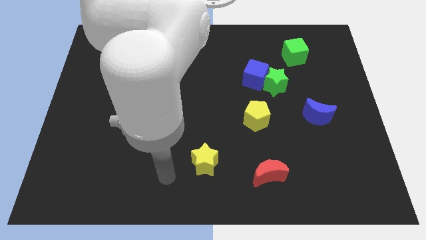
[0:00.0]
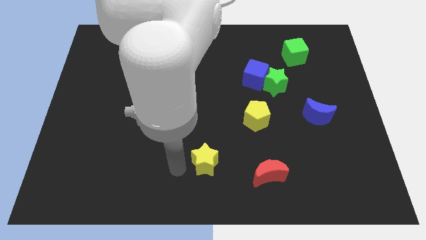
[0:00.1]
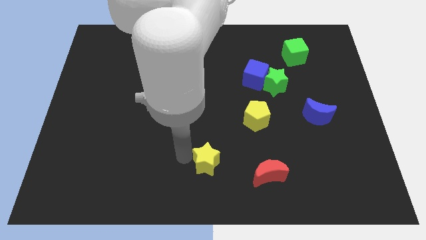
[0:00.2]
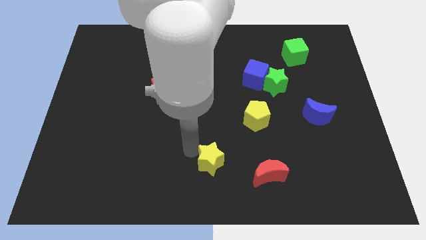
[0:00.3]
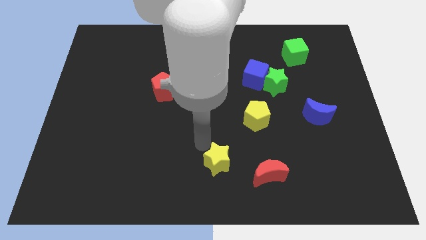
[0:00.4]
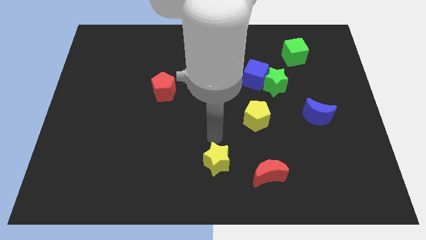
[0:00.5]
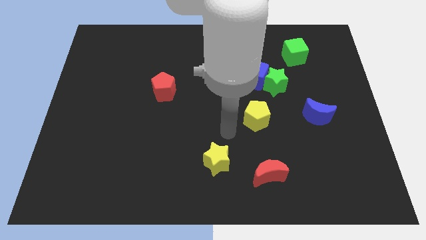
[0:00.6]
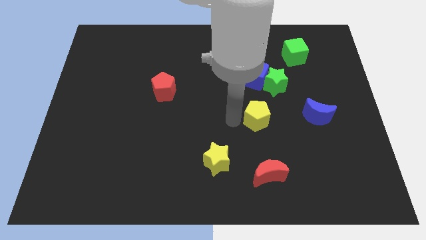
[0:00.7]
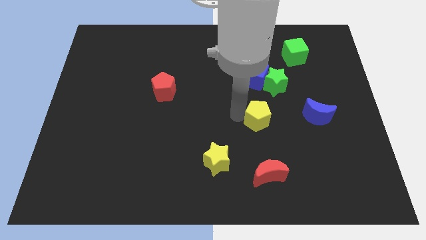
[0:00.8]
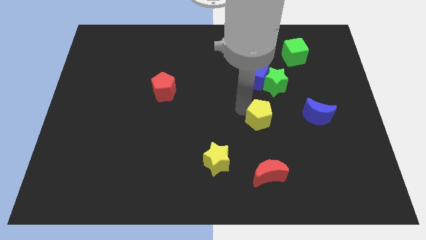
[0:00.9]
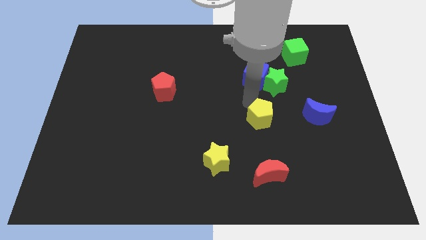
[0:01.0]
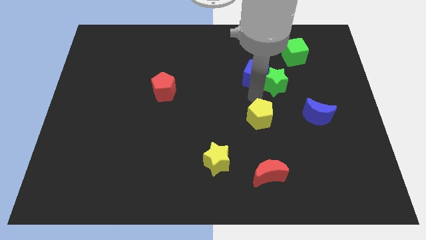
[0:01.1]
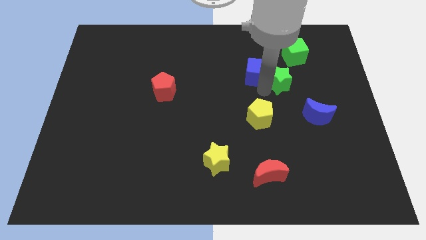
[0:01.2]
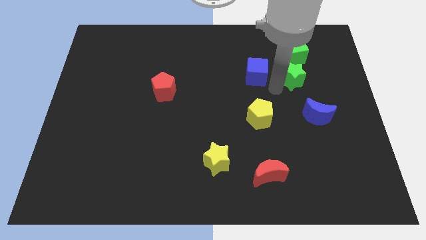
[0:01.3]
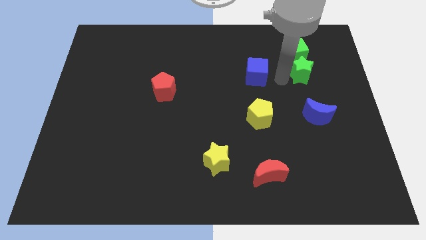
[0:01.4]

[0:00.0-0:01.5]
pull the blue cube apart from the green star

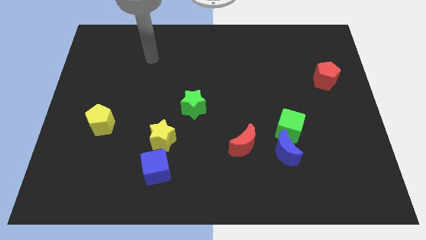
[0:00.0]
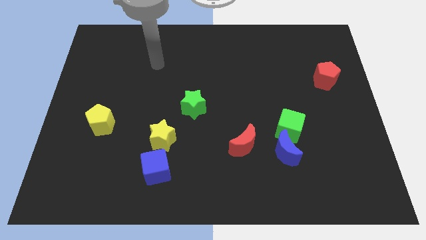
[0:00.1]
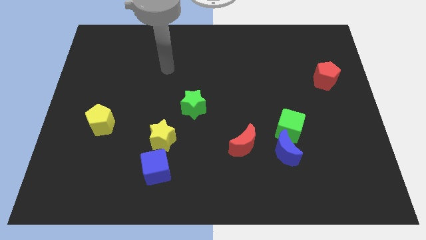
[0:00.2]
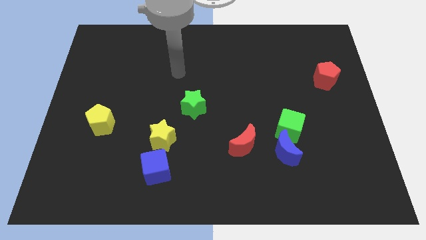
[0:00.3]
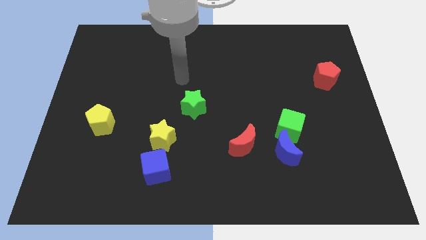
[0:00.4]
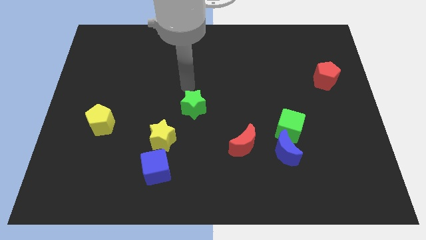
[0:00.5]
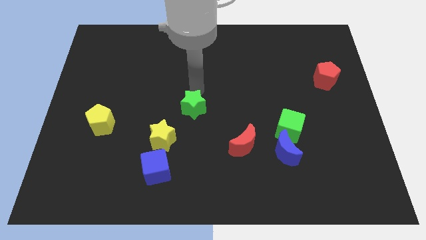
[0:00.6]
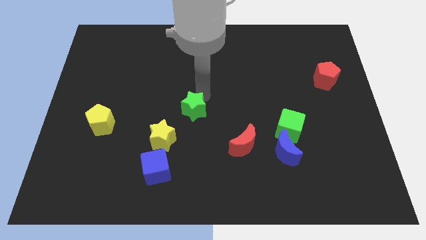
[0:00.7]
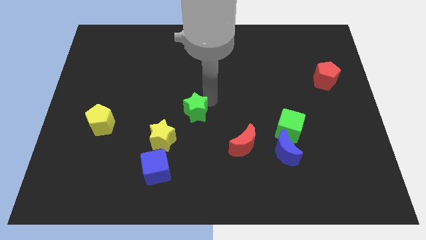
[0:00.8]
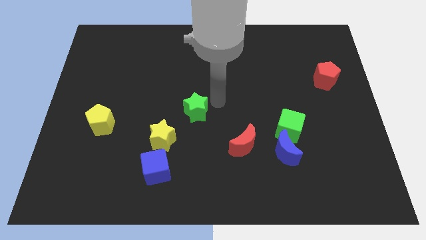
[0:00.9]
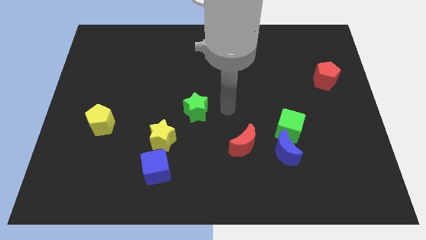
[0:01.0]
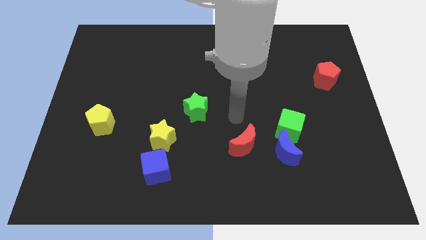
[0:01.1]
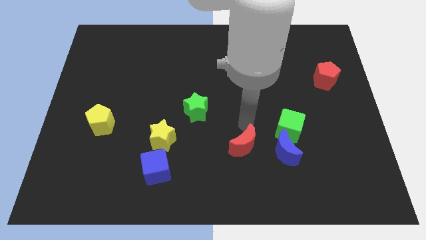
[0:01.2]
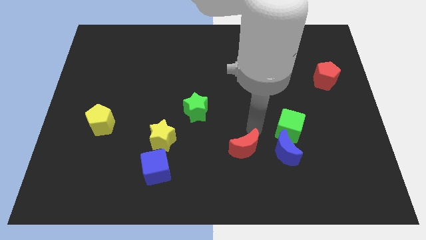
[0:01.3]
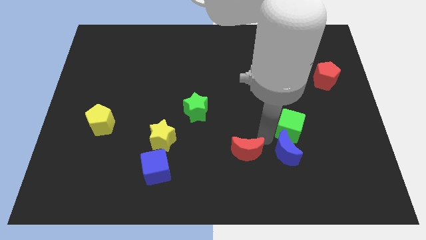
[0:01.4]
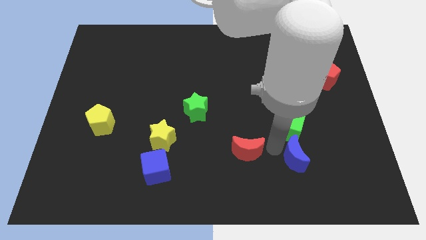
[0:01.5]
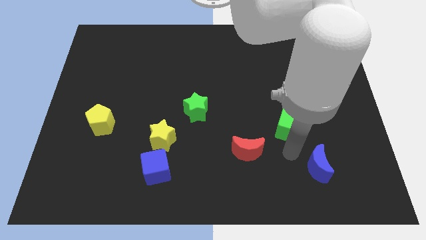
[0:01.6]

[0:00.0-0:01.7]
move the green cube away from the blue moon

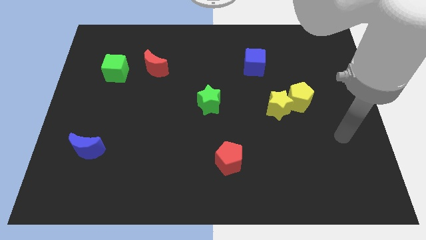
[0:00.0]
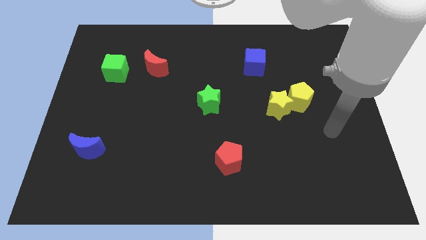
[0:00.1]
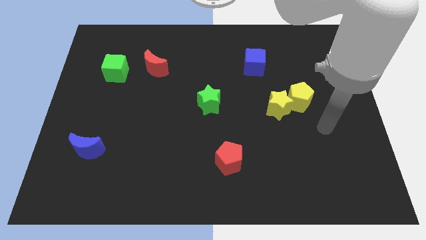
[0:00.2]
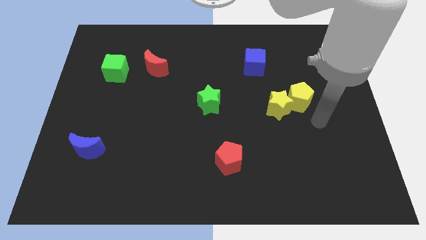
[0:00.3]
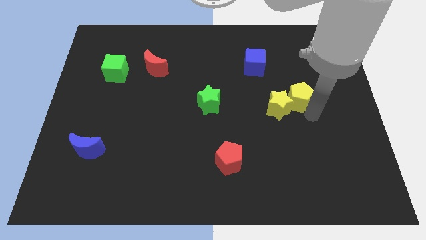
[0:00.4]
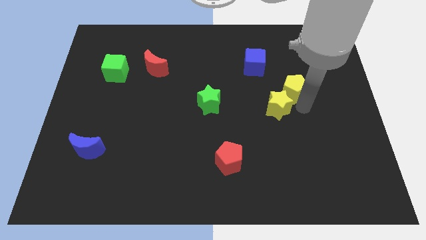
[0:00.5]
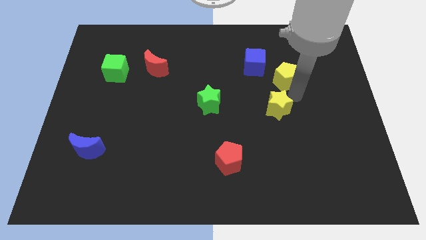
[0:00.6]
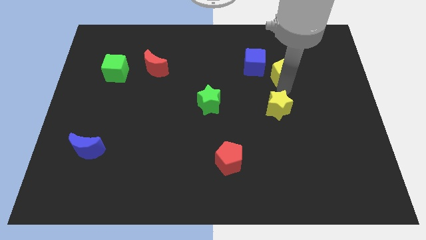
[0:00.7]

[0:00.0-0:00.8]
pull the yellow star apart from the yellow pentagon

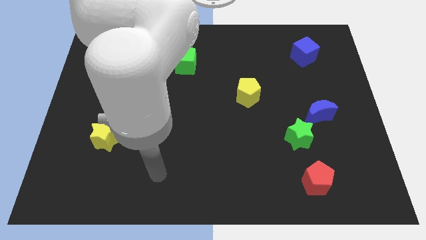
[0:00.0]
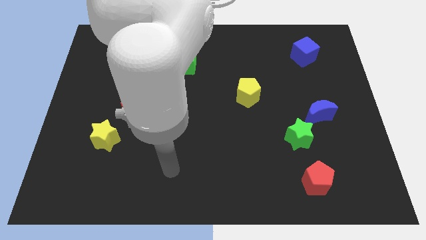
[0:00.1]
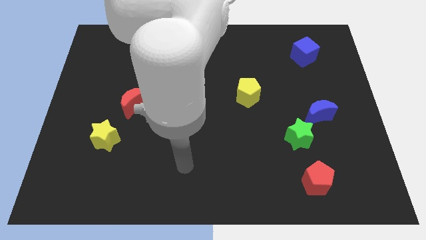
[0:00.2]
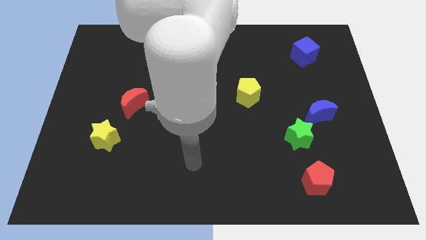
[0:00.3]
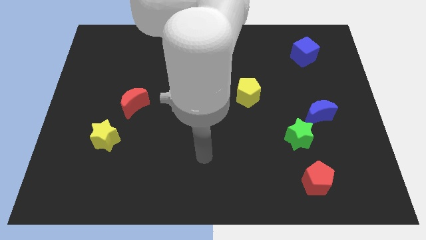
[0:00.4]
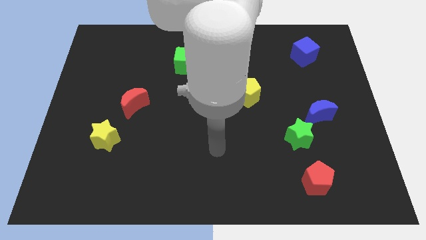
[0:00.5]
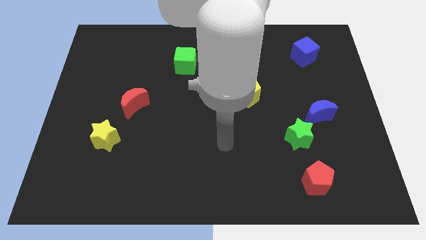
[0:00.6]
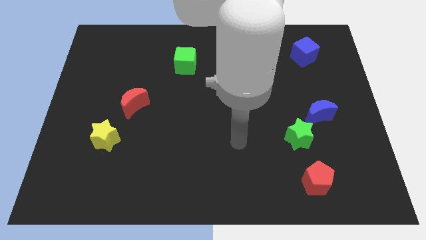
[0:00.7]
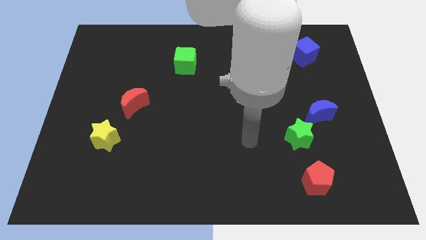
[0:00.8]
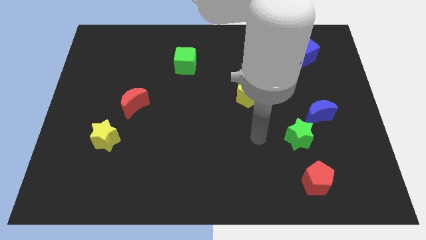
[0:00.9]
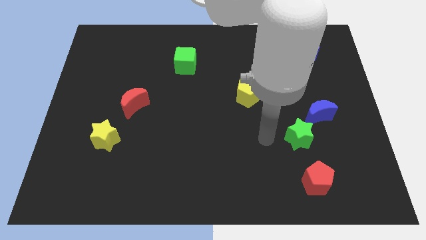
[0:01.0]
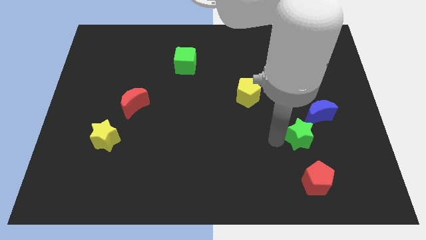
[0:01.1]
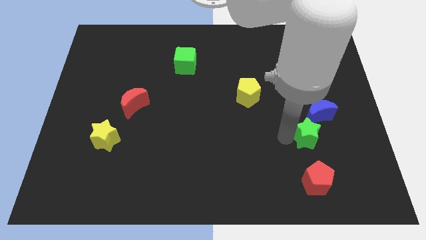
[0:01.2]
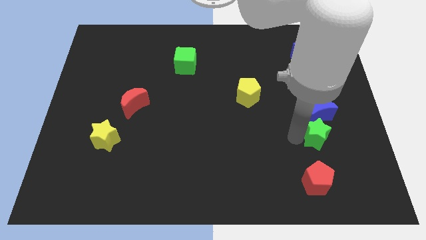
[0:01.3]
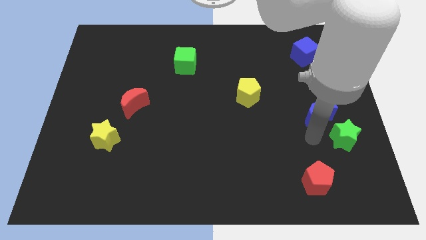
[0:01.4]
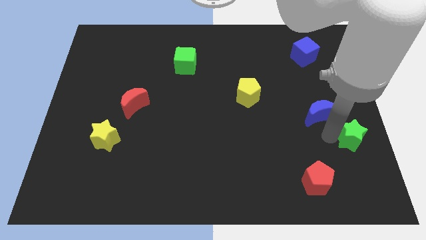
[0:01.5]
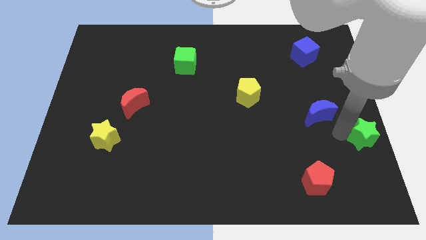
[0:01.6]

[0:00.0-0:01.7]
separate the blue moon from the green star

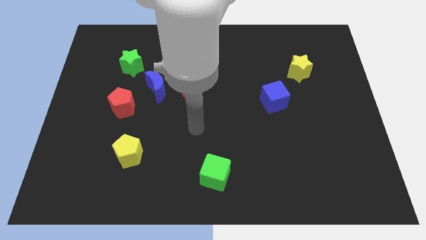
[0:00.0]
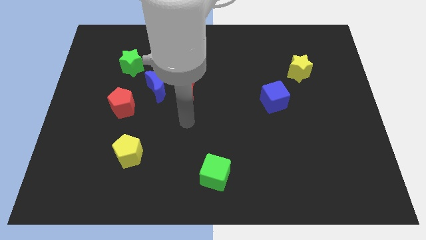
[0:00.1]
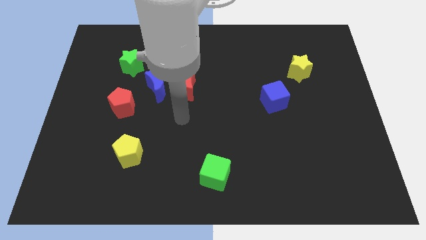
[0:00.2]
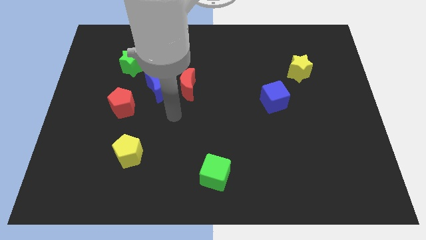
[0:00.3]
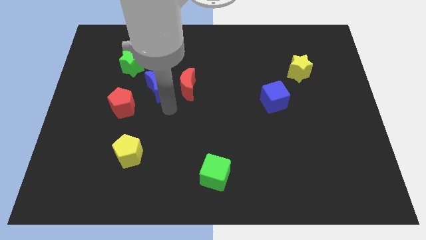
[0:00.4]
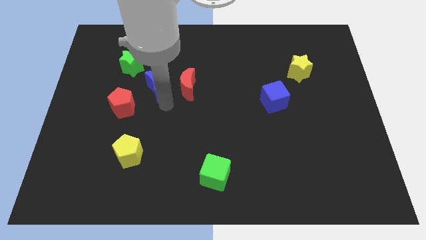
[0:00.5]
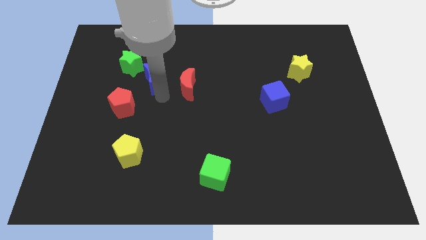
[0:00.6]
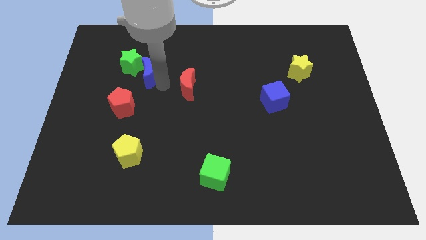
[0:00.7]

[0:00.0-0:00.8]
move the red moon away from the blue moon

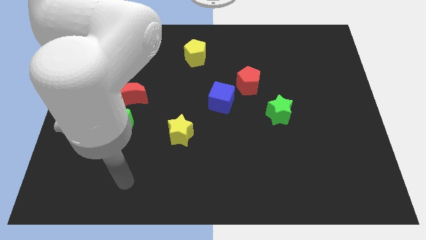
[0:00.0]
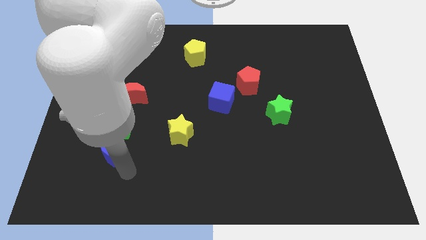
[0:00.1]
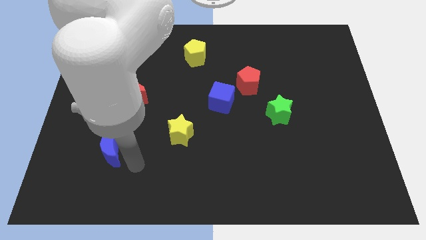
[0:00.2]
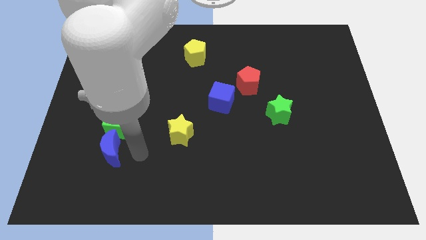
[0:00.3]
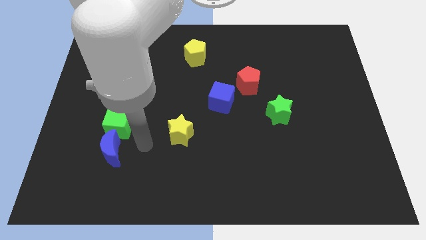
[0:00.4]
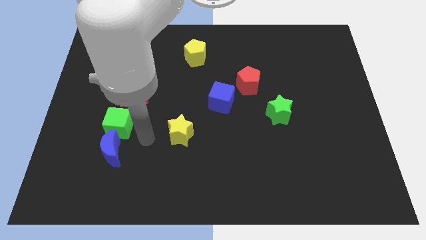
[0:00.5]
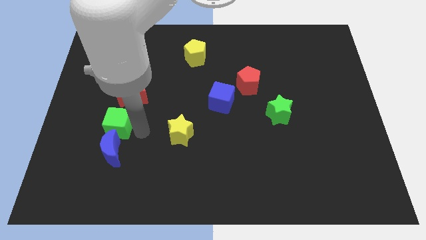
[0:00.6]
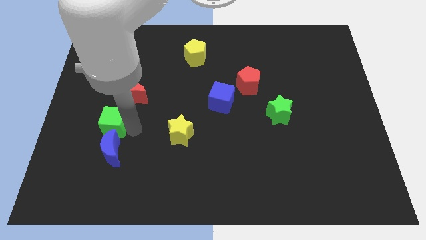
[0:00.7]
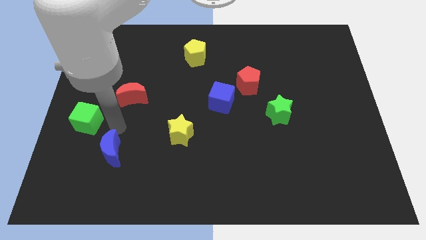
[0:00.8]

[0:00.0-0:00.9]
separate the blue moon from the green cube

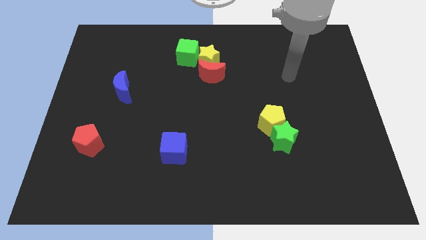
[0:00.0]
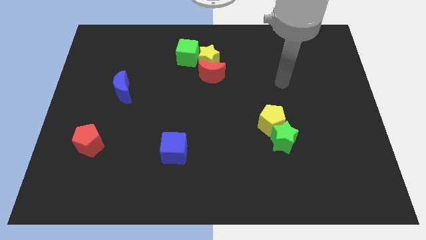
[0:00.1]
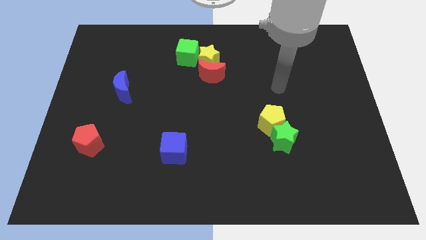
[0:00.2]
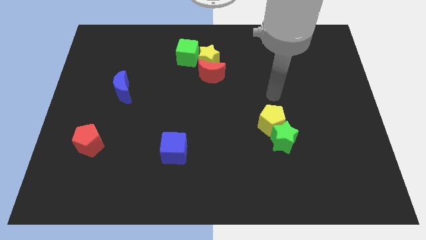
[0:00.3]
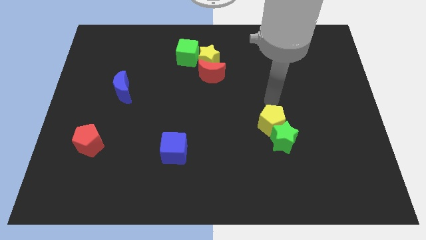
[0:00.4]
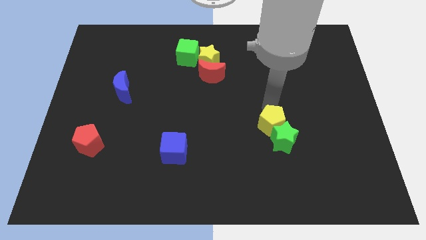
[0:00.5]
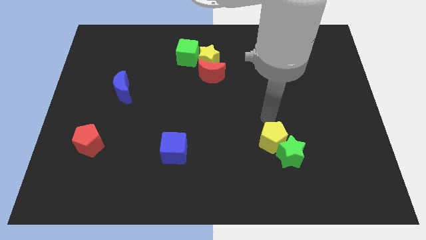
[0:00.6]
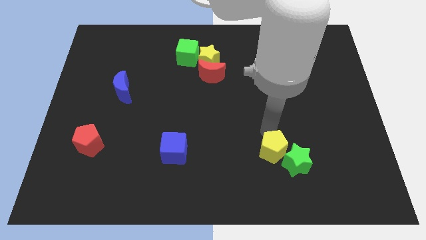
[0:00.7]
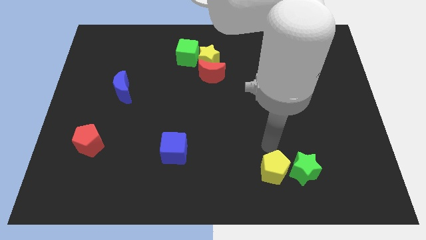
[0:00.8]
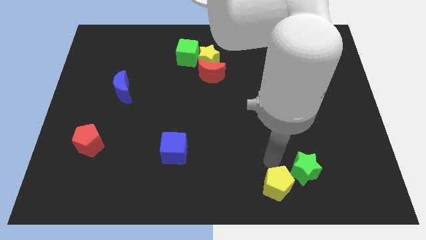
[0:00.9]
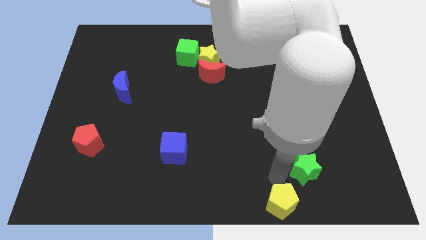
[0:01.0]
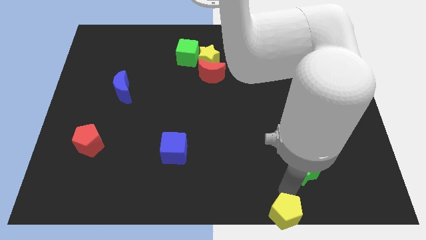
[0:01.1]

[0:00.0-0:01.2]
separate the green star from the yellow pentagon

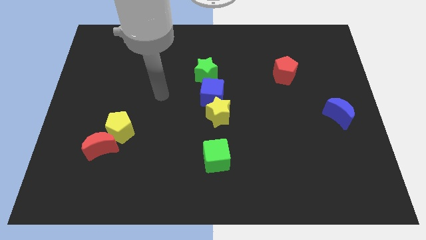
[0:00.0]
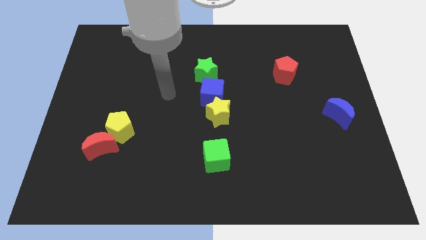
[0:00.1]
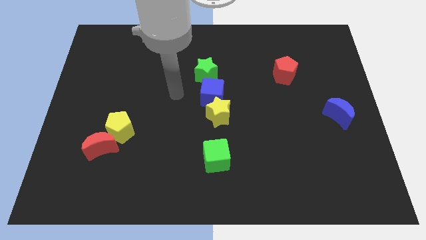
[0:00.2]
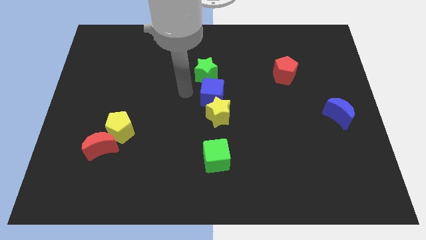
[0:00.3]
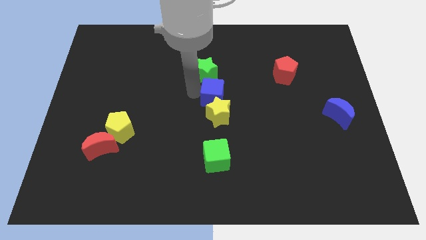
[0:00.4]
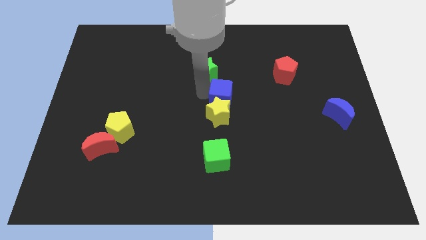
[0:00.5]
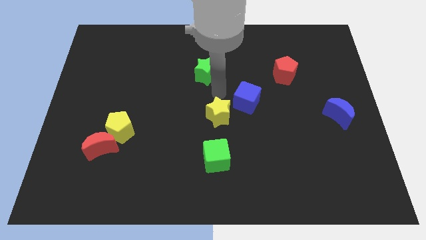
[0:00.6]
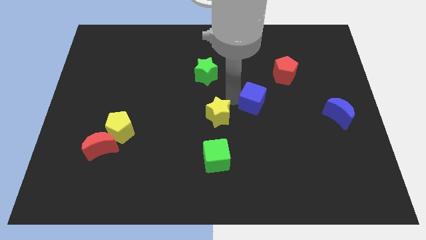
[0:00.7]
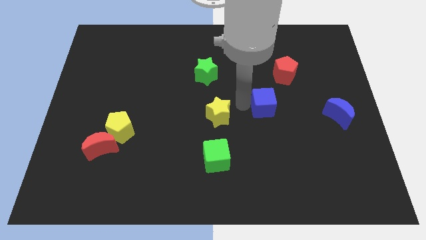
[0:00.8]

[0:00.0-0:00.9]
pull the yellow star apart from the blue cube
